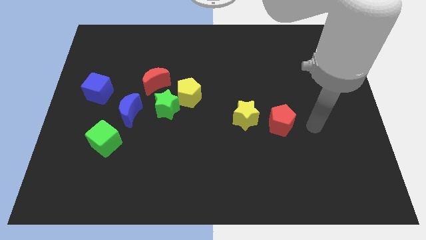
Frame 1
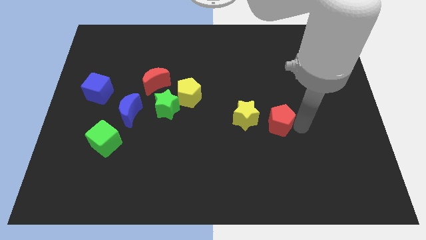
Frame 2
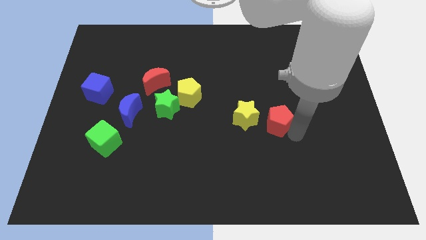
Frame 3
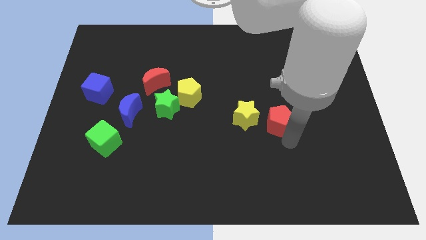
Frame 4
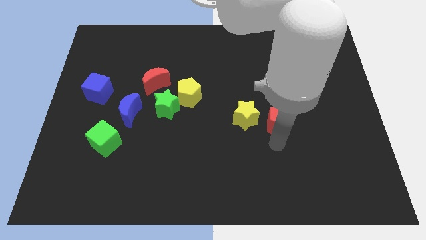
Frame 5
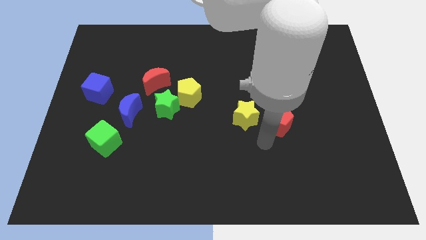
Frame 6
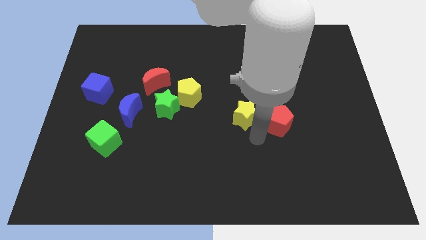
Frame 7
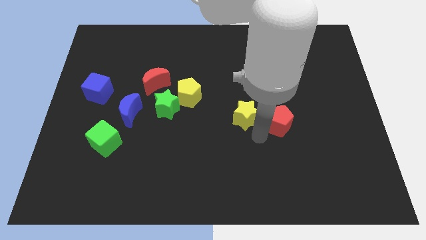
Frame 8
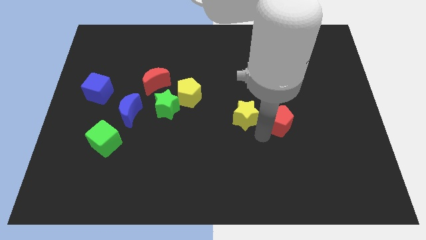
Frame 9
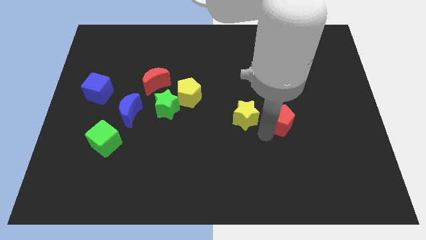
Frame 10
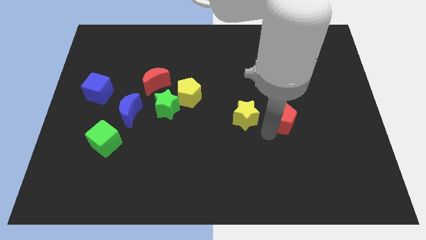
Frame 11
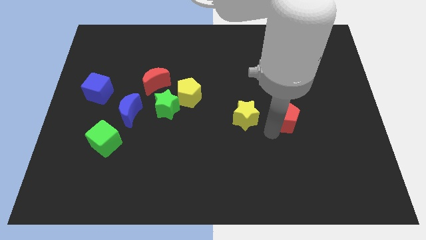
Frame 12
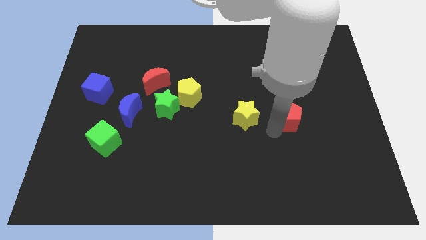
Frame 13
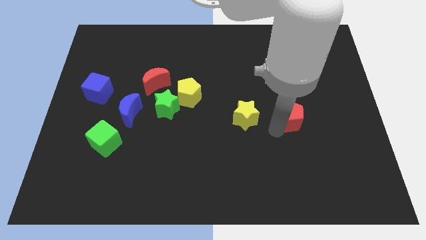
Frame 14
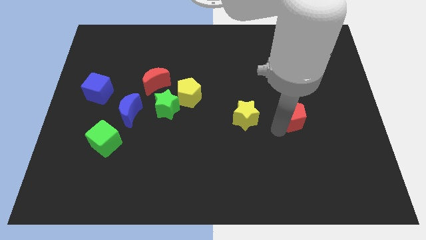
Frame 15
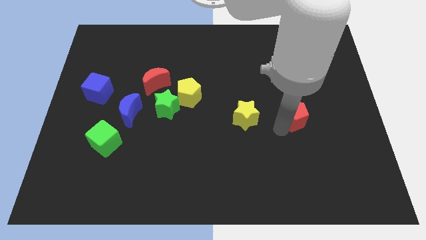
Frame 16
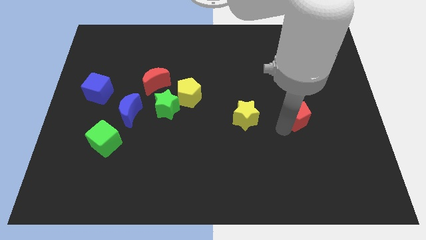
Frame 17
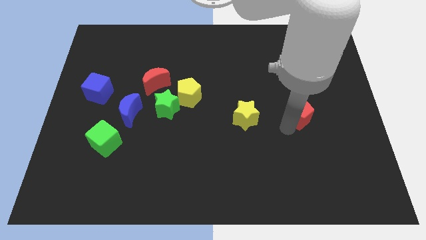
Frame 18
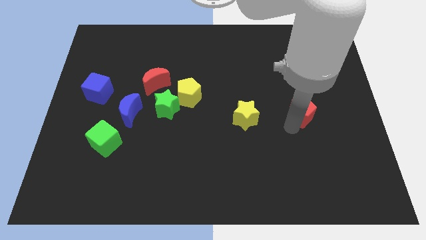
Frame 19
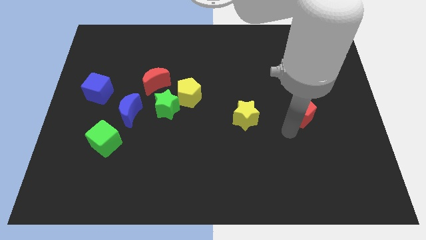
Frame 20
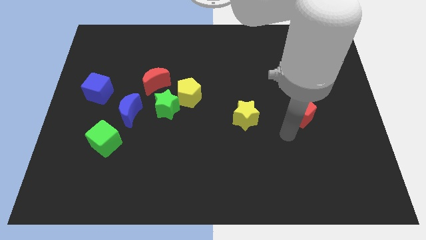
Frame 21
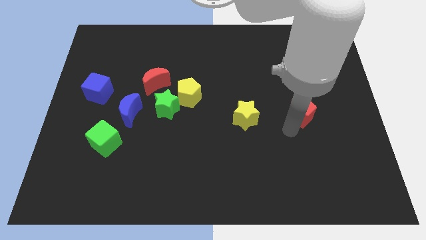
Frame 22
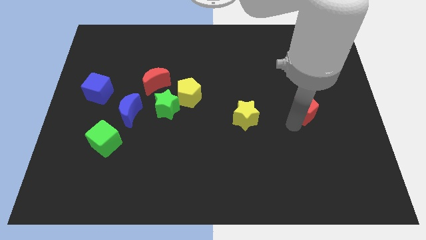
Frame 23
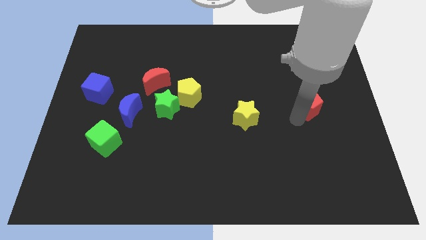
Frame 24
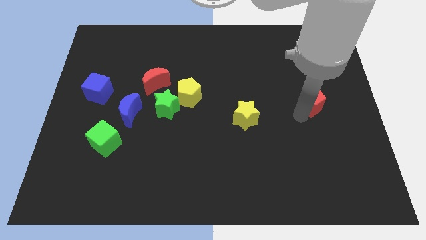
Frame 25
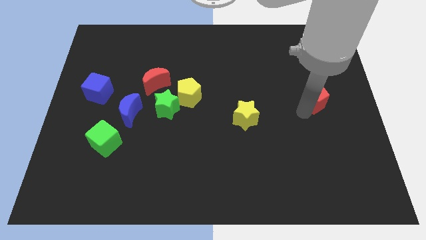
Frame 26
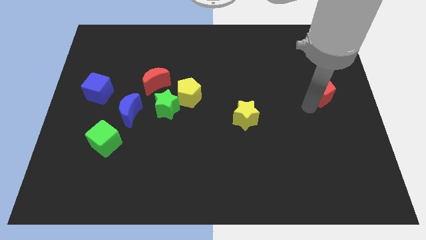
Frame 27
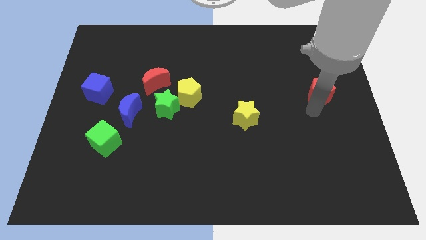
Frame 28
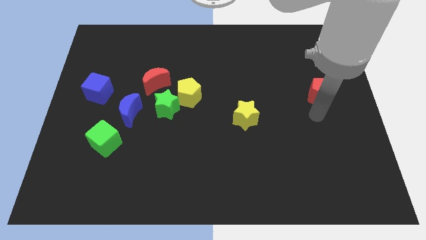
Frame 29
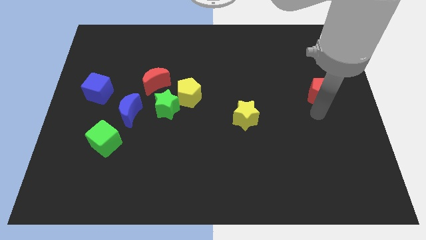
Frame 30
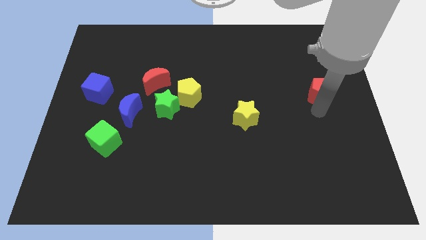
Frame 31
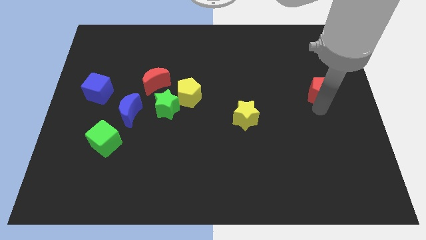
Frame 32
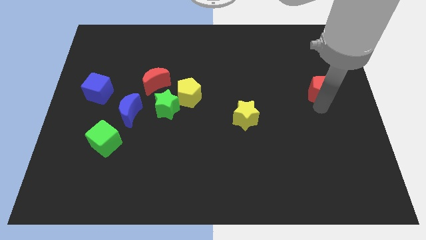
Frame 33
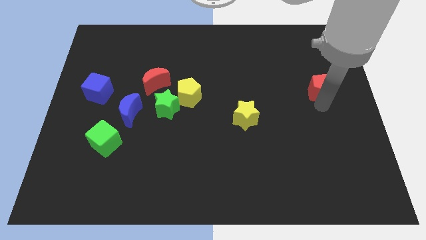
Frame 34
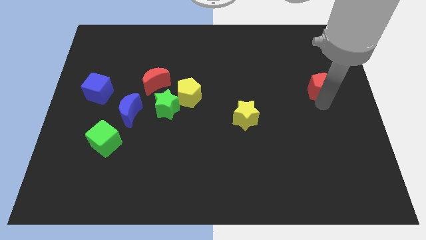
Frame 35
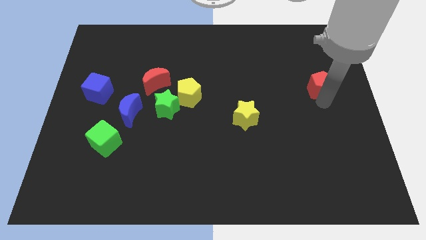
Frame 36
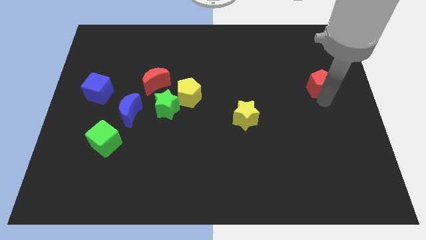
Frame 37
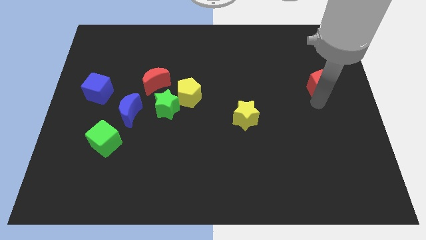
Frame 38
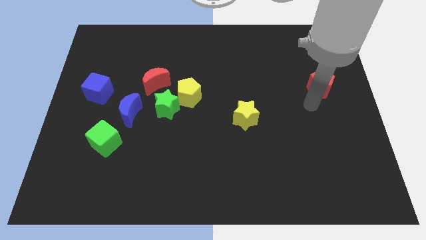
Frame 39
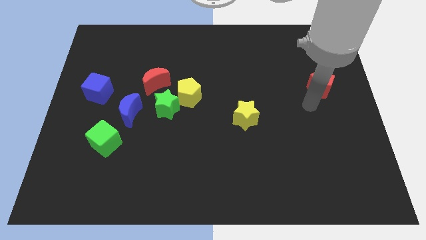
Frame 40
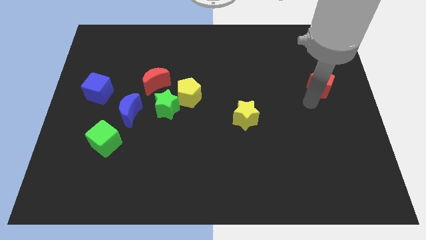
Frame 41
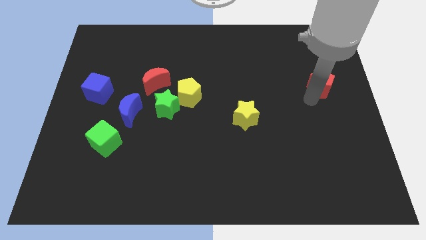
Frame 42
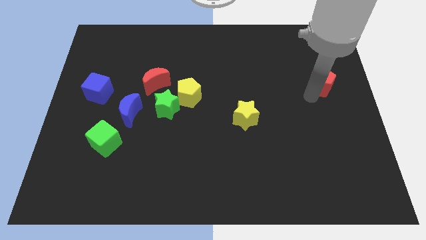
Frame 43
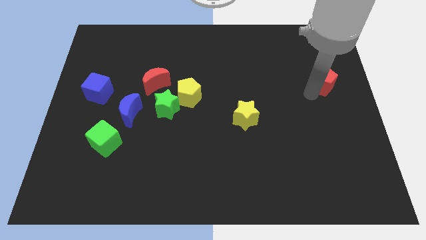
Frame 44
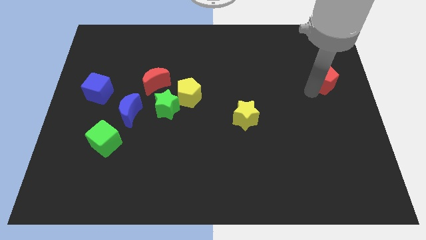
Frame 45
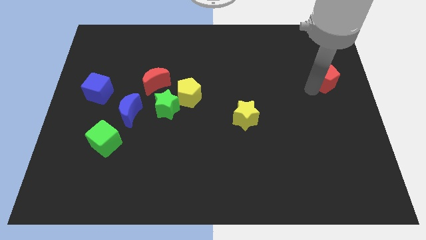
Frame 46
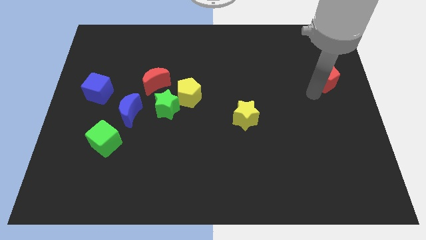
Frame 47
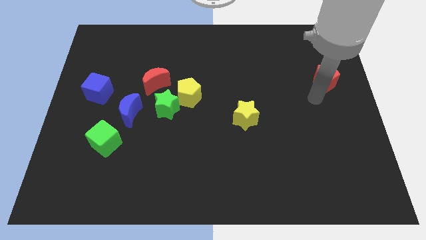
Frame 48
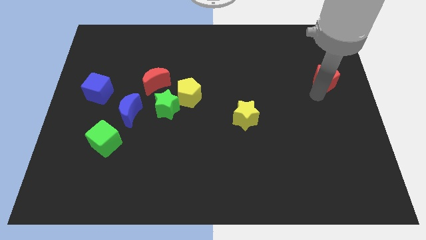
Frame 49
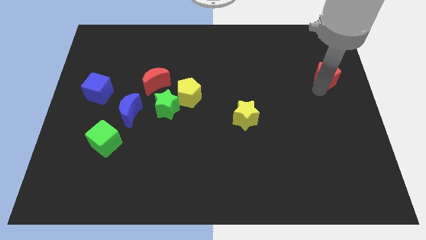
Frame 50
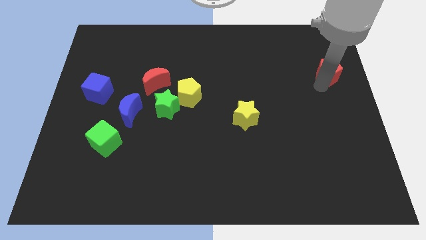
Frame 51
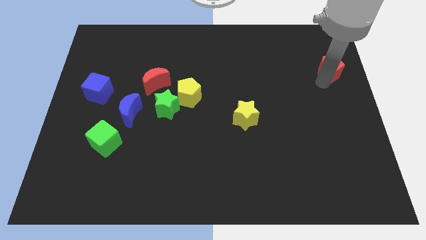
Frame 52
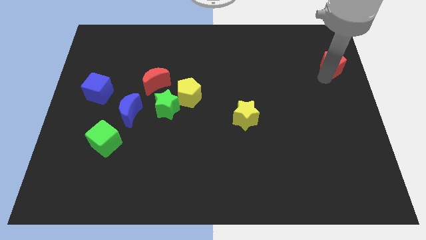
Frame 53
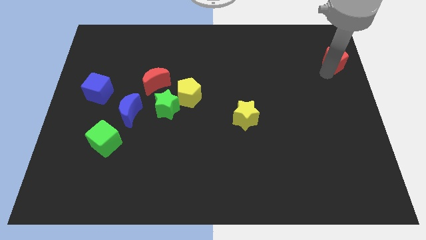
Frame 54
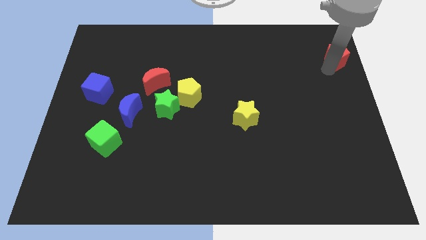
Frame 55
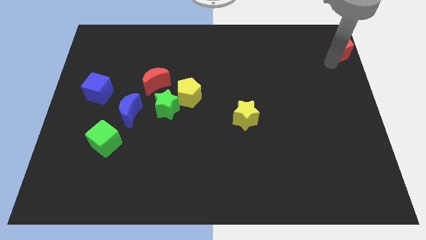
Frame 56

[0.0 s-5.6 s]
push the red pentagon to the top right

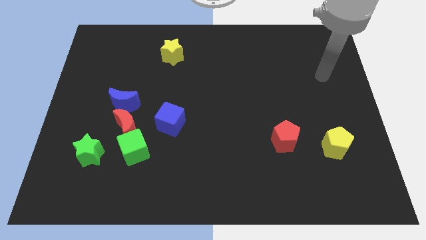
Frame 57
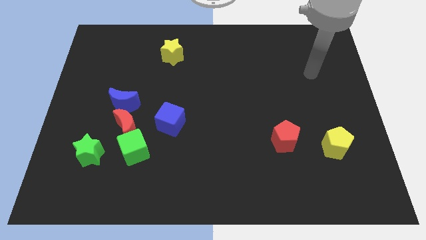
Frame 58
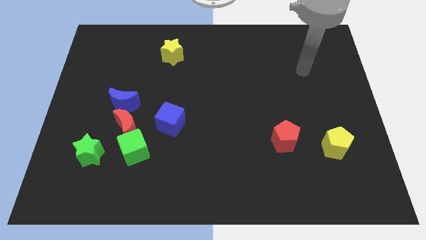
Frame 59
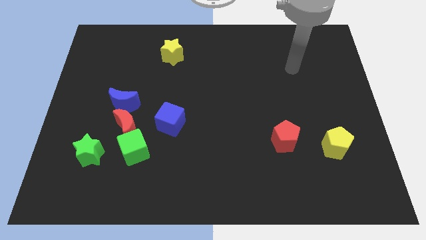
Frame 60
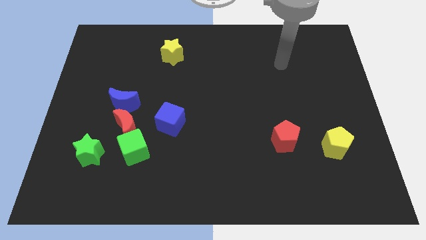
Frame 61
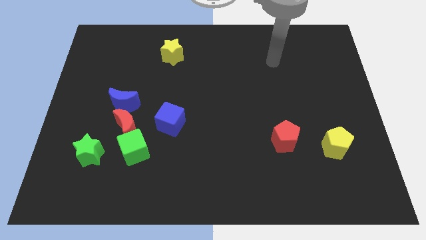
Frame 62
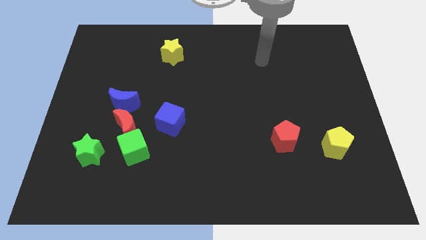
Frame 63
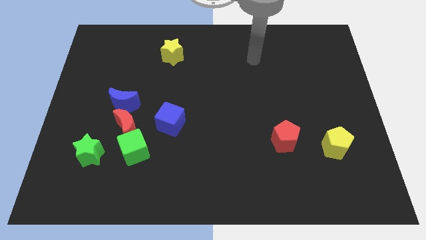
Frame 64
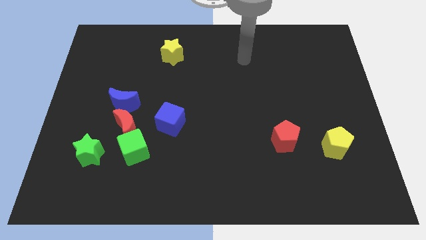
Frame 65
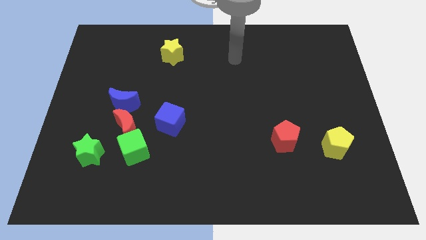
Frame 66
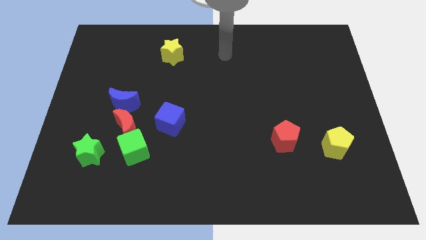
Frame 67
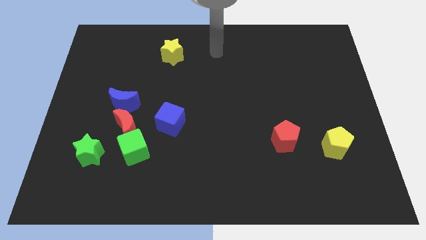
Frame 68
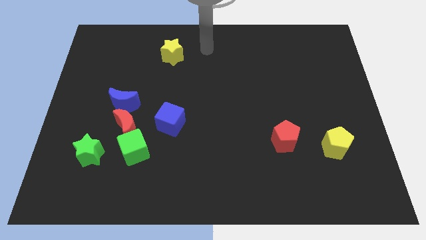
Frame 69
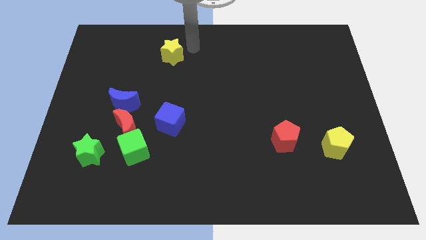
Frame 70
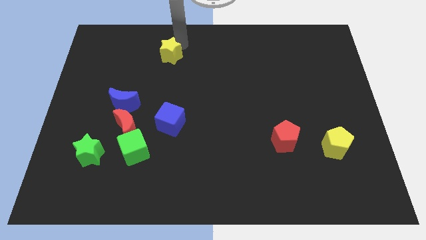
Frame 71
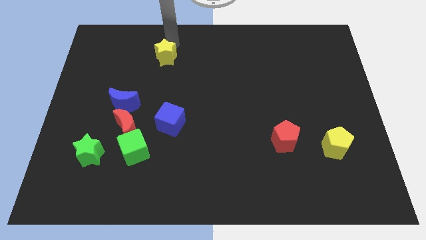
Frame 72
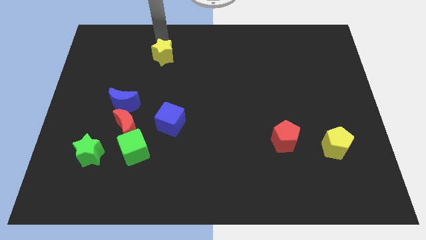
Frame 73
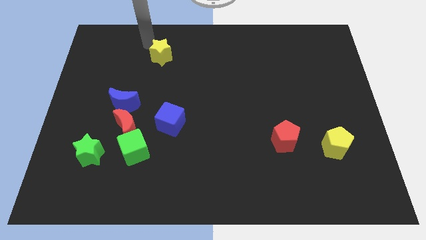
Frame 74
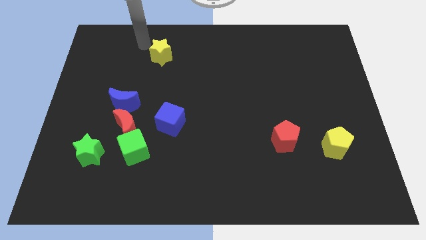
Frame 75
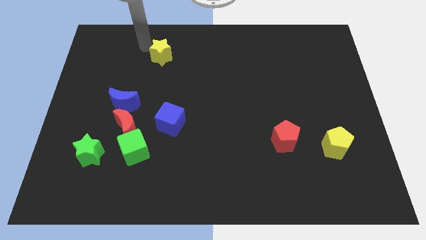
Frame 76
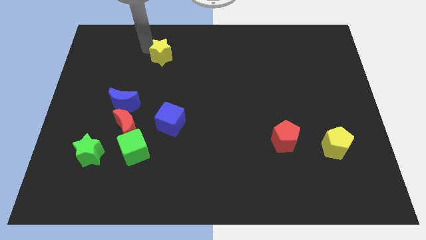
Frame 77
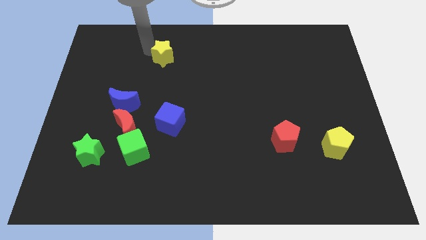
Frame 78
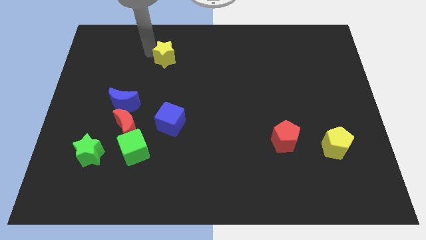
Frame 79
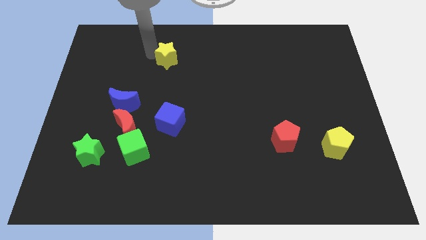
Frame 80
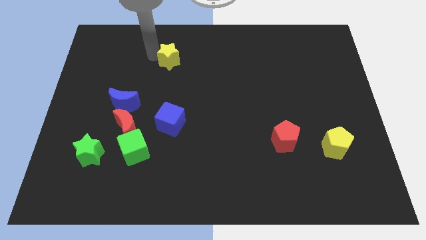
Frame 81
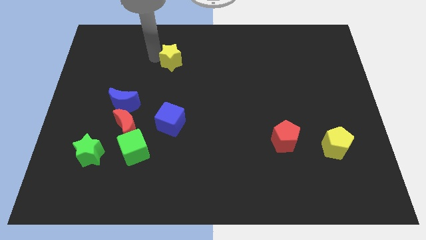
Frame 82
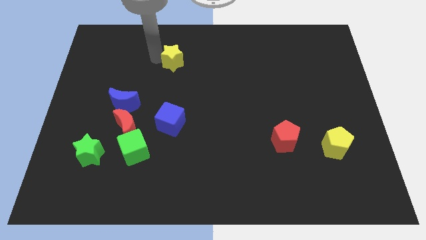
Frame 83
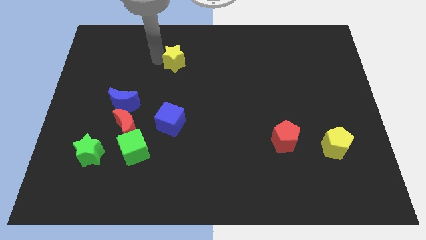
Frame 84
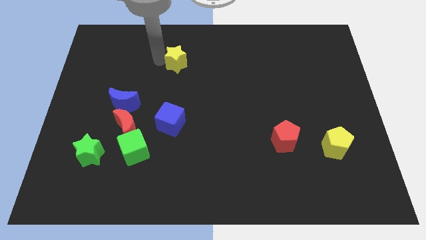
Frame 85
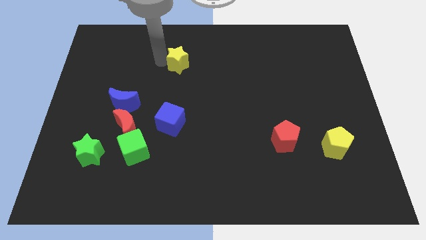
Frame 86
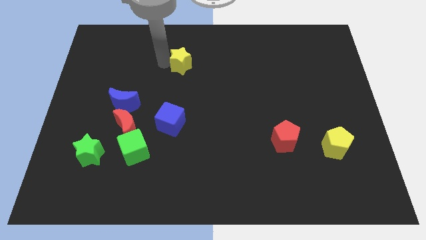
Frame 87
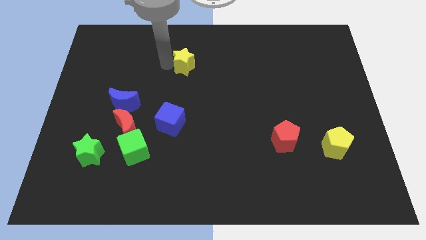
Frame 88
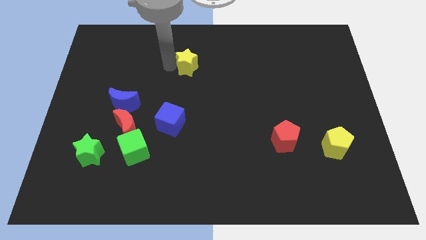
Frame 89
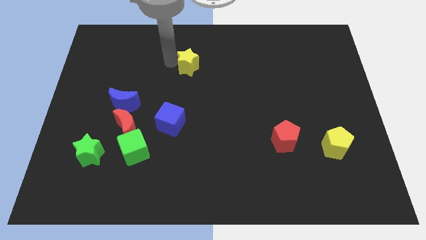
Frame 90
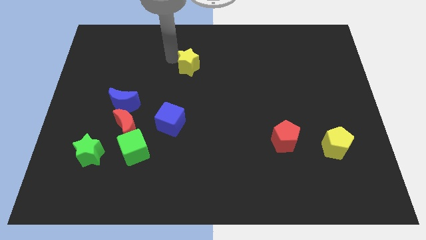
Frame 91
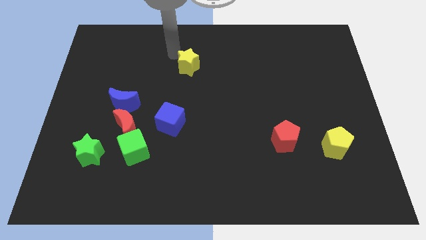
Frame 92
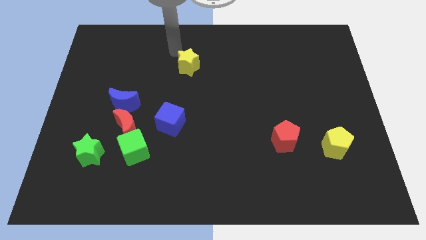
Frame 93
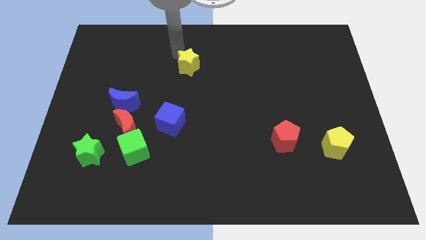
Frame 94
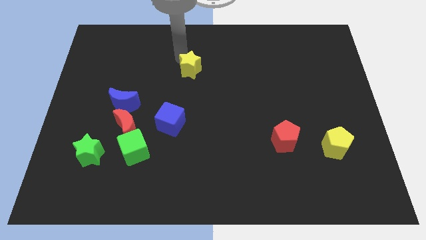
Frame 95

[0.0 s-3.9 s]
move the yellow star to the center of the board
